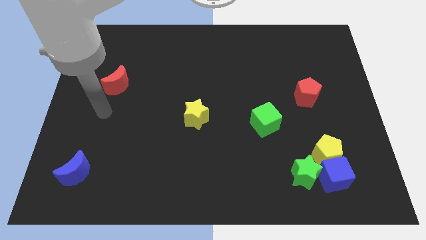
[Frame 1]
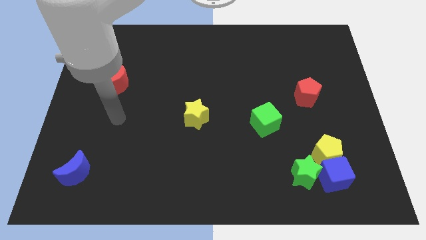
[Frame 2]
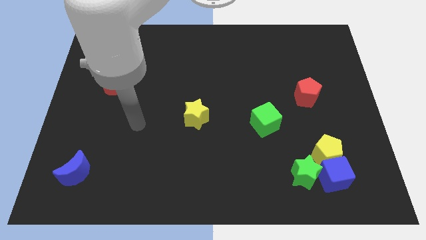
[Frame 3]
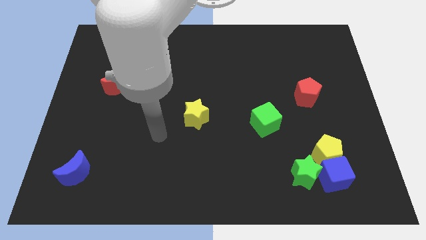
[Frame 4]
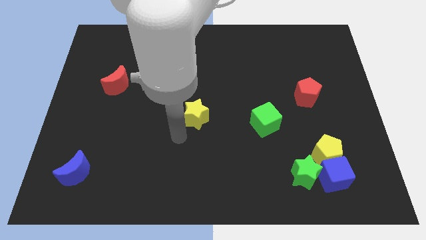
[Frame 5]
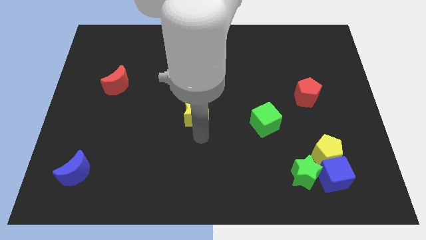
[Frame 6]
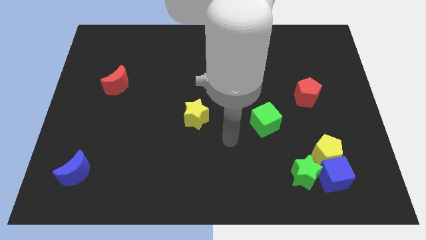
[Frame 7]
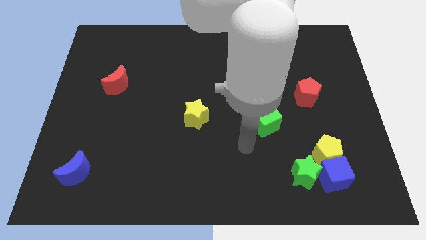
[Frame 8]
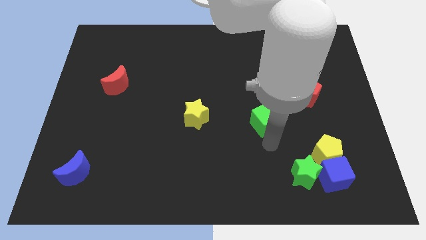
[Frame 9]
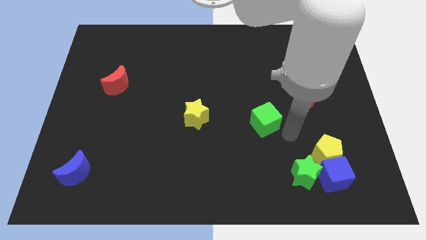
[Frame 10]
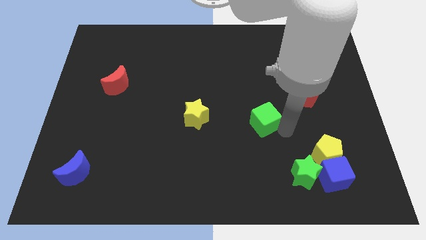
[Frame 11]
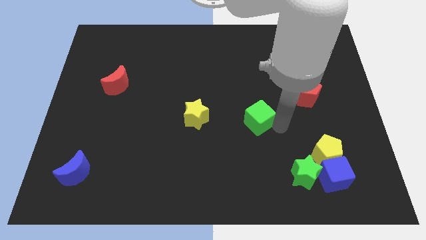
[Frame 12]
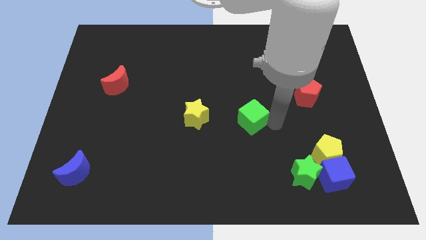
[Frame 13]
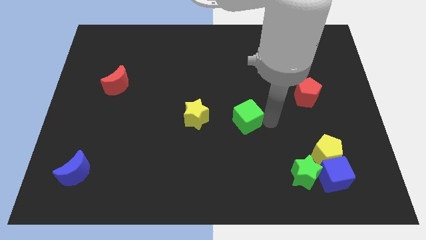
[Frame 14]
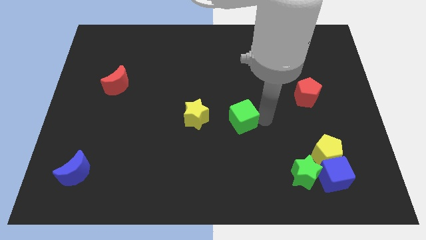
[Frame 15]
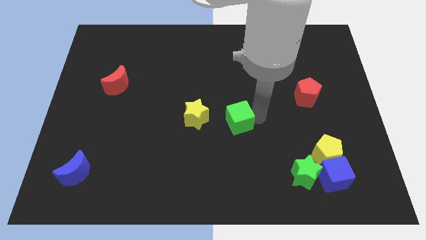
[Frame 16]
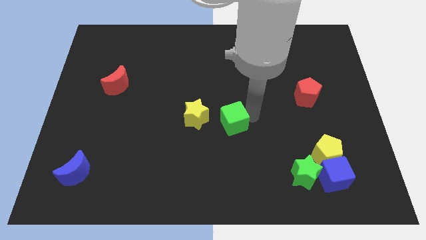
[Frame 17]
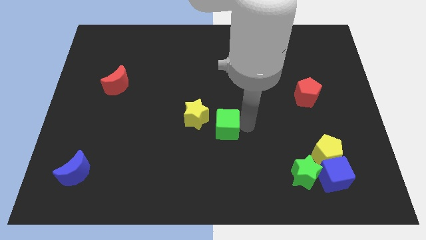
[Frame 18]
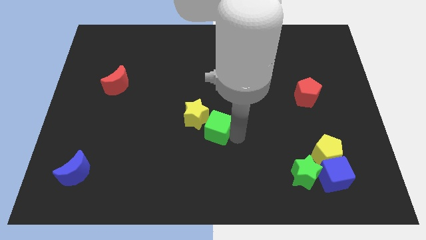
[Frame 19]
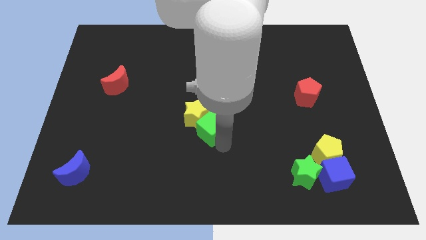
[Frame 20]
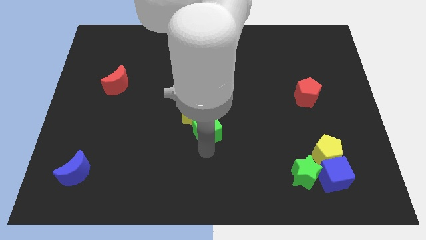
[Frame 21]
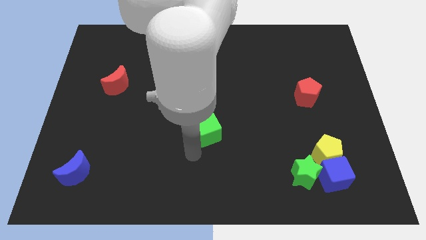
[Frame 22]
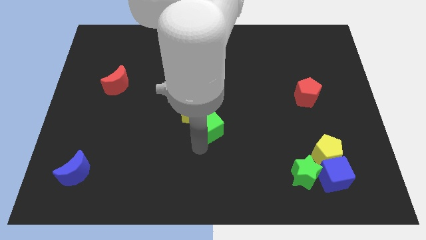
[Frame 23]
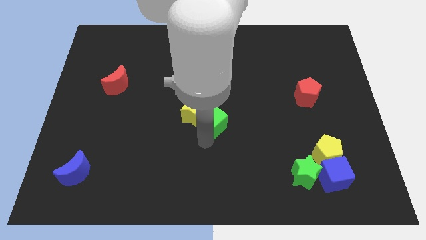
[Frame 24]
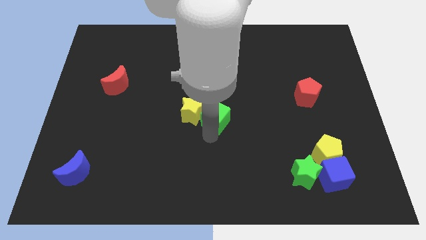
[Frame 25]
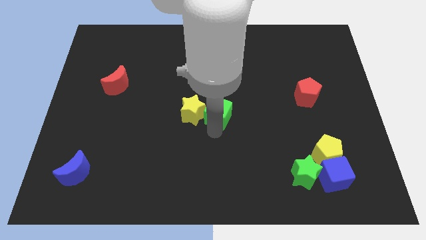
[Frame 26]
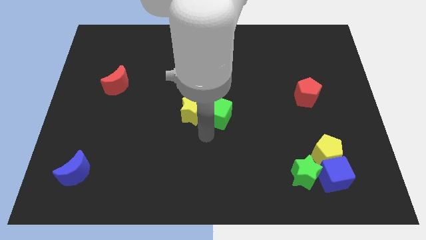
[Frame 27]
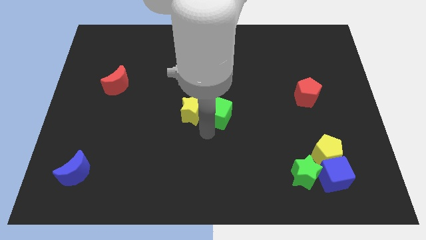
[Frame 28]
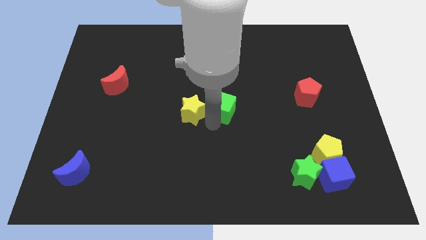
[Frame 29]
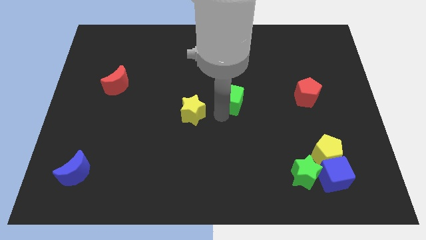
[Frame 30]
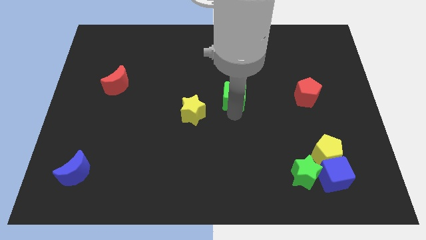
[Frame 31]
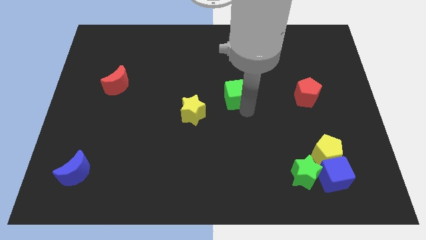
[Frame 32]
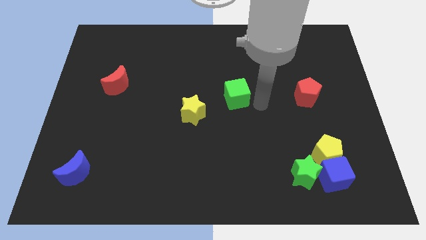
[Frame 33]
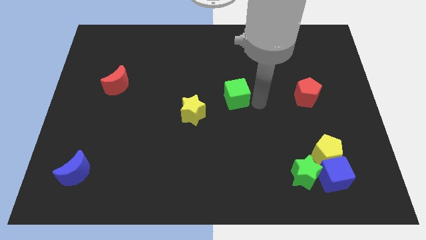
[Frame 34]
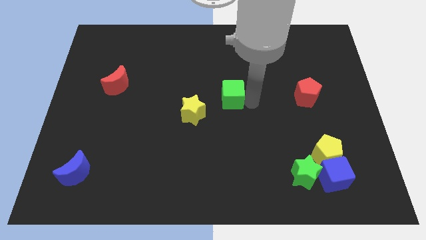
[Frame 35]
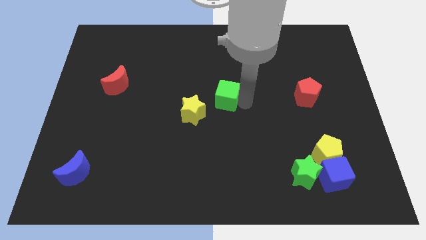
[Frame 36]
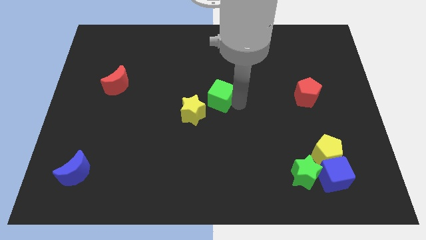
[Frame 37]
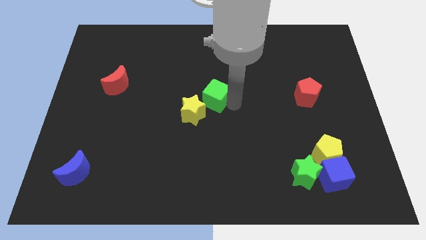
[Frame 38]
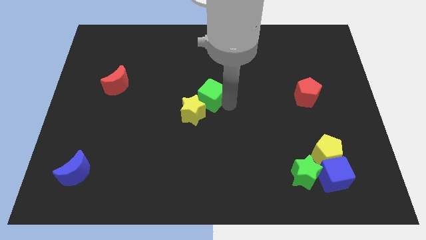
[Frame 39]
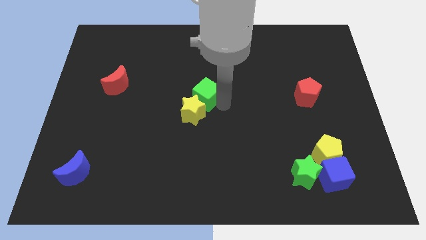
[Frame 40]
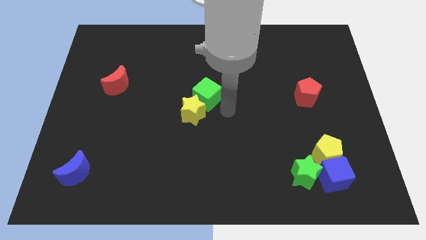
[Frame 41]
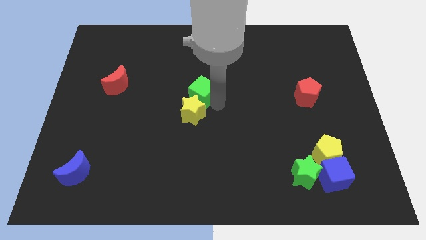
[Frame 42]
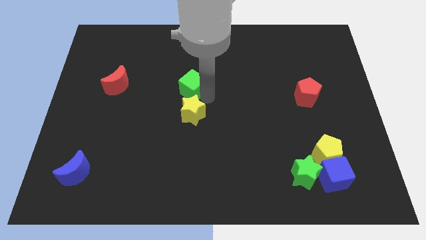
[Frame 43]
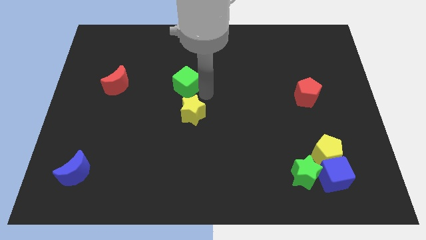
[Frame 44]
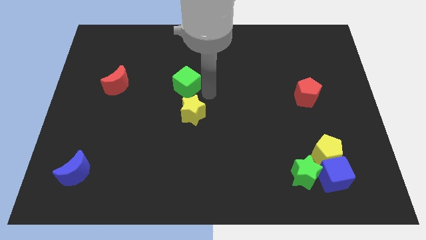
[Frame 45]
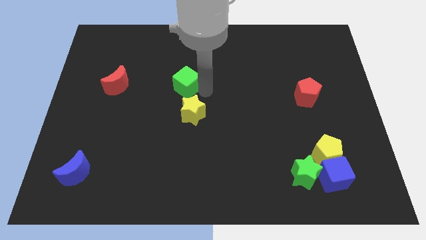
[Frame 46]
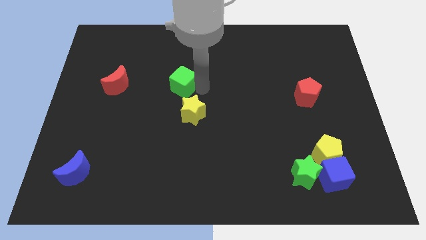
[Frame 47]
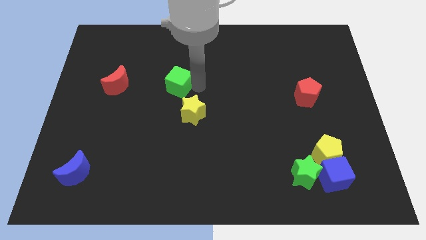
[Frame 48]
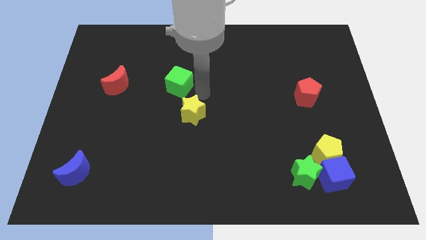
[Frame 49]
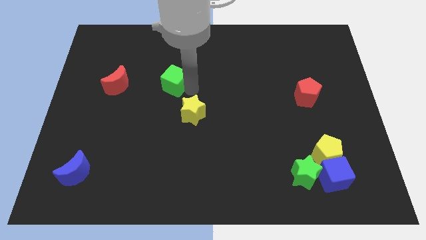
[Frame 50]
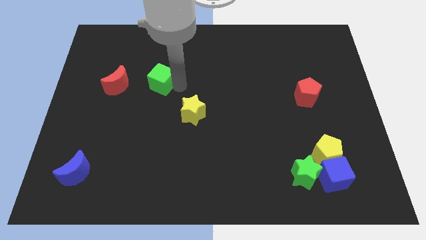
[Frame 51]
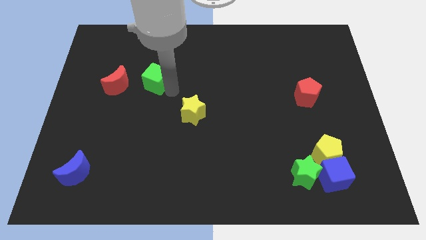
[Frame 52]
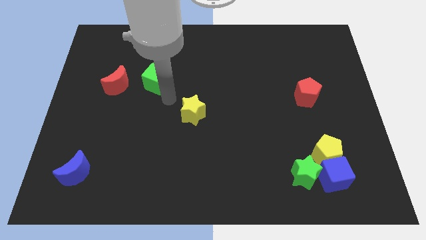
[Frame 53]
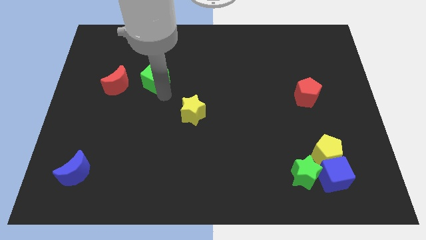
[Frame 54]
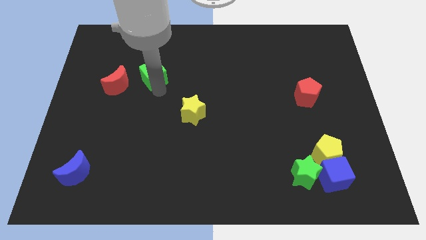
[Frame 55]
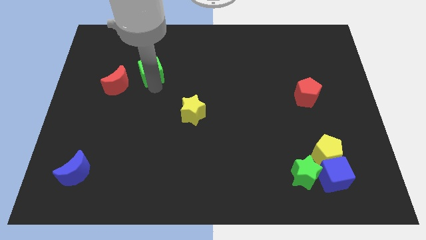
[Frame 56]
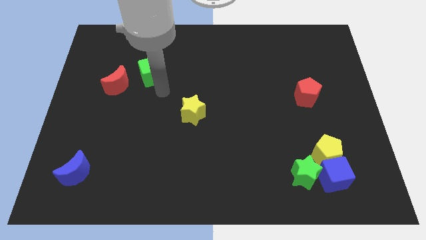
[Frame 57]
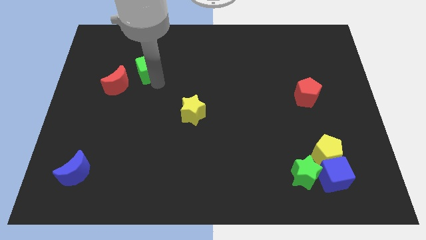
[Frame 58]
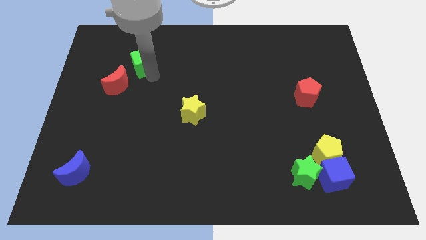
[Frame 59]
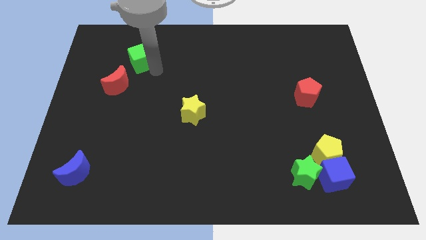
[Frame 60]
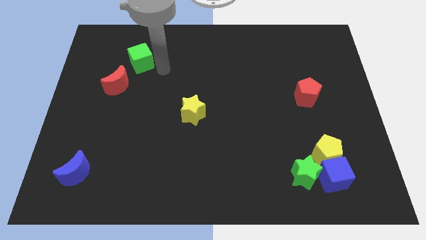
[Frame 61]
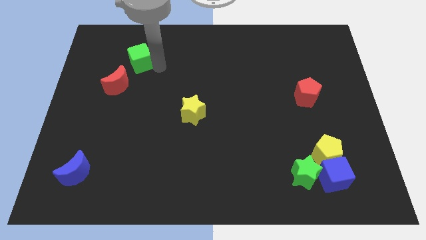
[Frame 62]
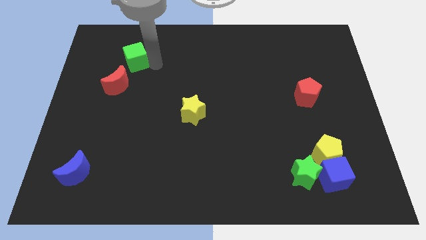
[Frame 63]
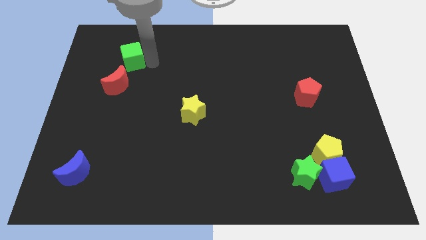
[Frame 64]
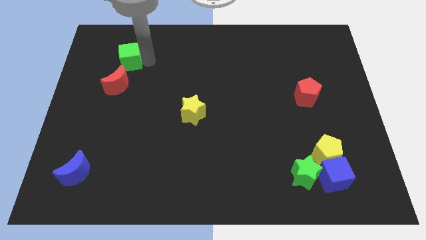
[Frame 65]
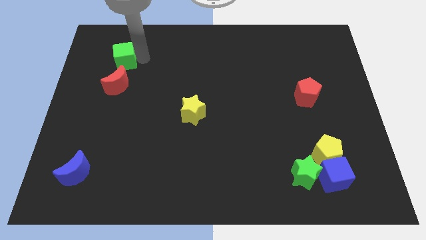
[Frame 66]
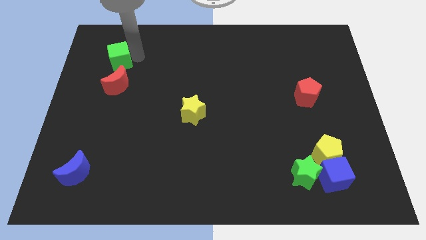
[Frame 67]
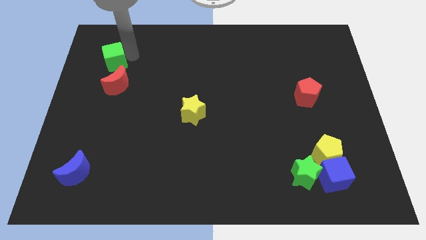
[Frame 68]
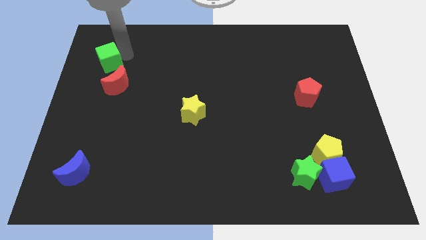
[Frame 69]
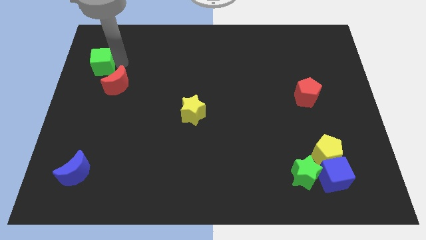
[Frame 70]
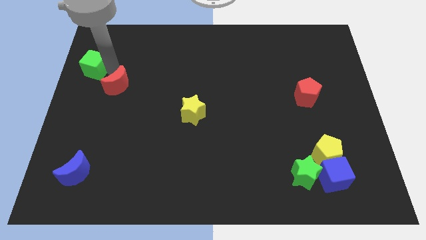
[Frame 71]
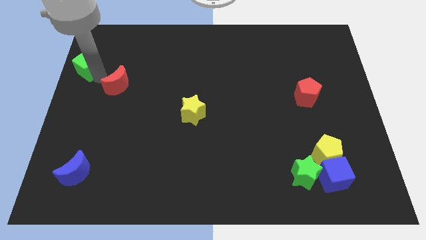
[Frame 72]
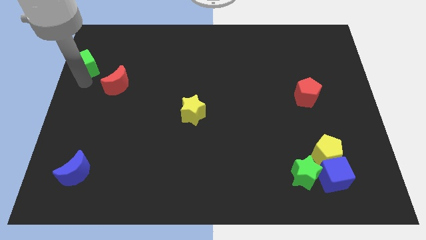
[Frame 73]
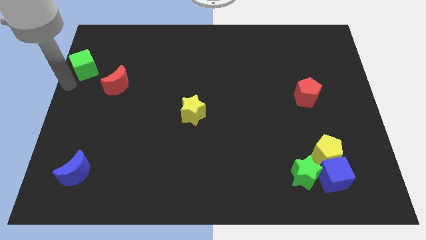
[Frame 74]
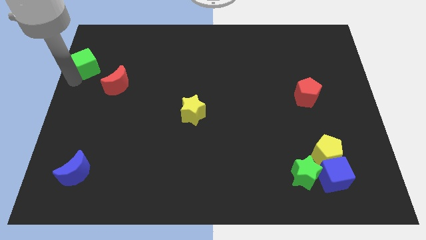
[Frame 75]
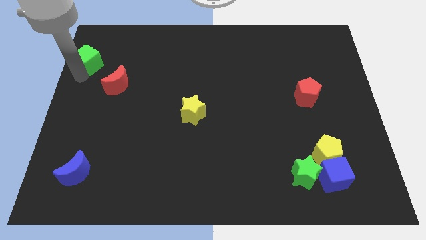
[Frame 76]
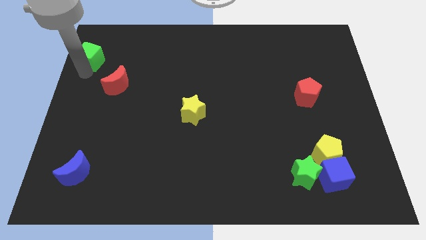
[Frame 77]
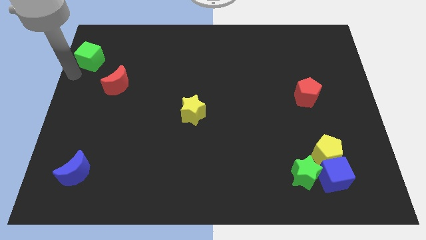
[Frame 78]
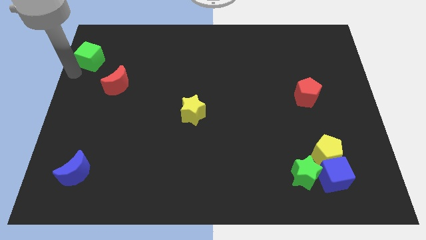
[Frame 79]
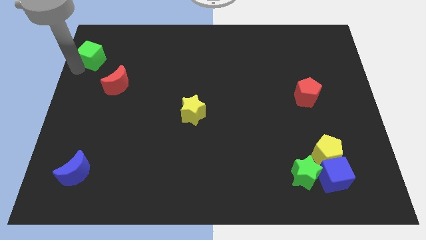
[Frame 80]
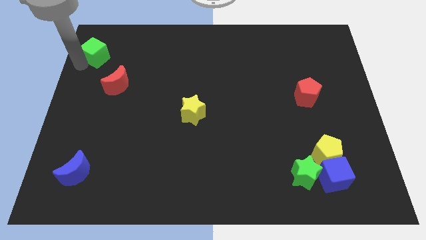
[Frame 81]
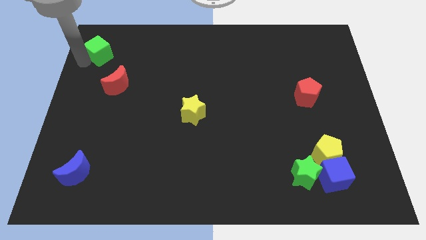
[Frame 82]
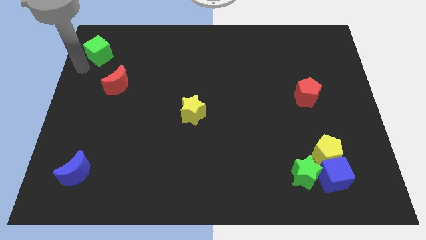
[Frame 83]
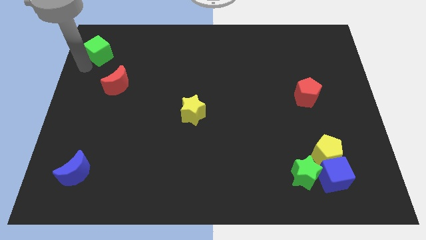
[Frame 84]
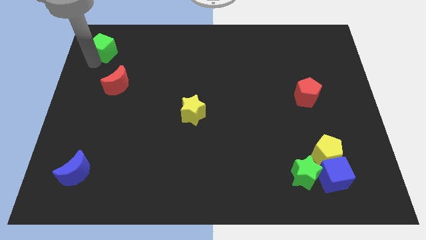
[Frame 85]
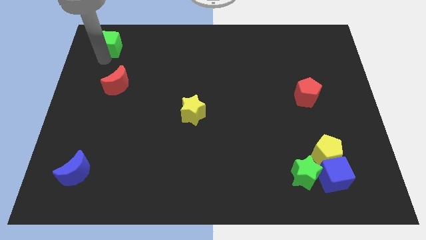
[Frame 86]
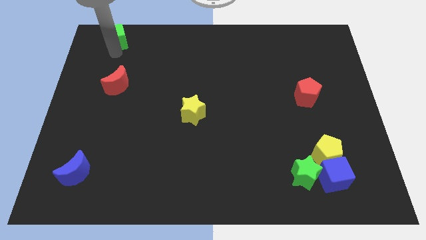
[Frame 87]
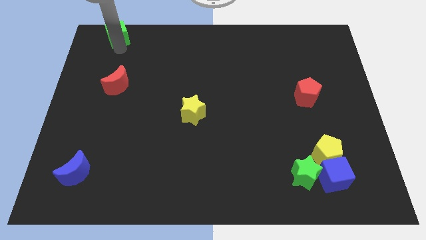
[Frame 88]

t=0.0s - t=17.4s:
push the green cube to the top left
